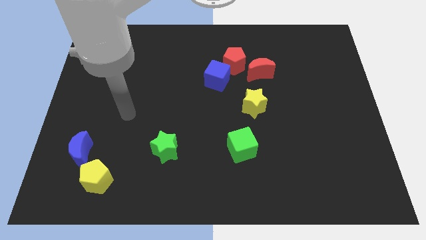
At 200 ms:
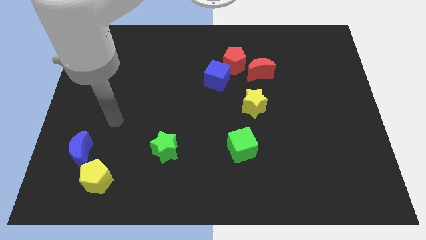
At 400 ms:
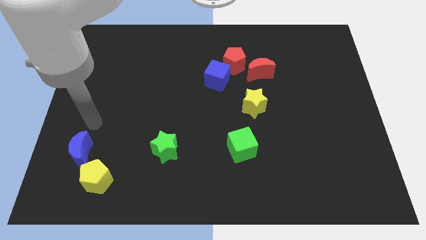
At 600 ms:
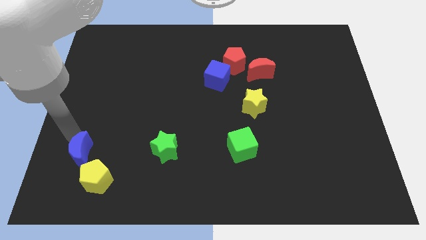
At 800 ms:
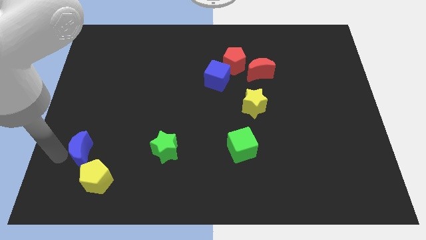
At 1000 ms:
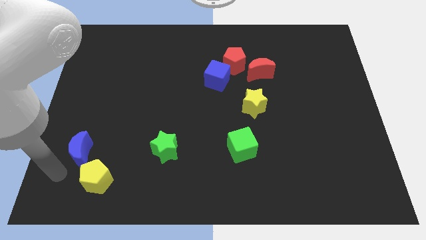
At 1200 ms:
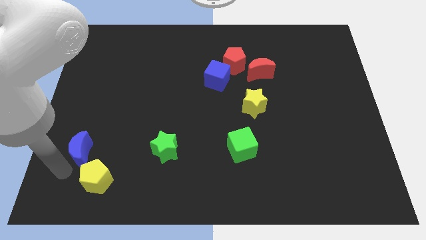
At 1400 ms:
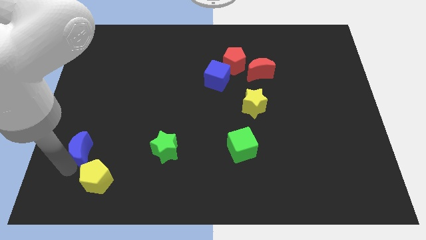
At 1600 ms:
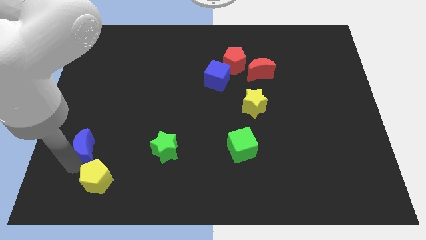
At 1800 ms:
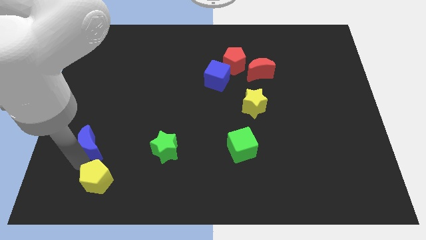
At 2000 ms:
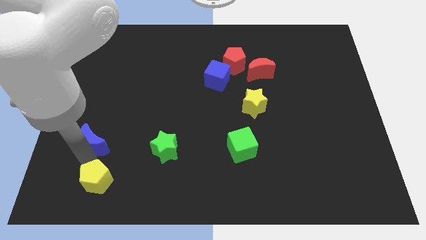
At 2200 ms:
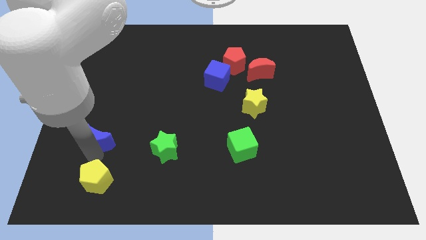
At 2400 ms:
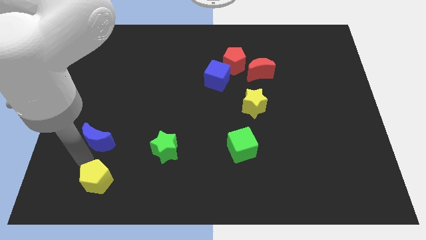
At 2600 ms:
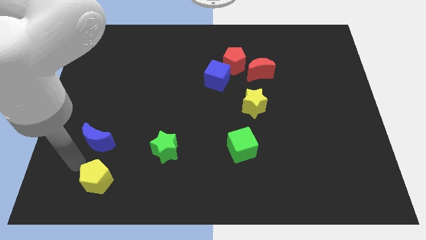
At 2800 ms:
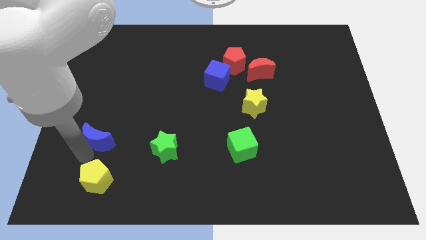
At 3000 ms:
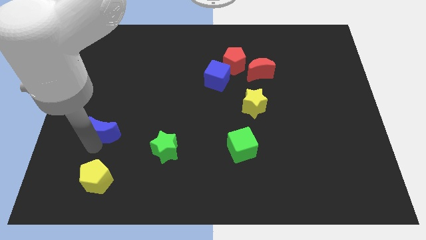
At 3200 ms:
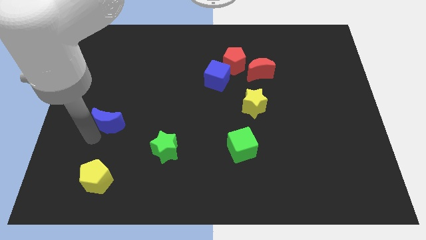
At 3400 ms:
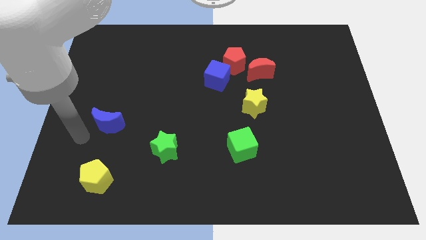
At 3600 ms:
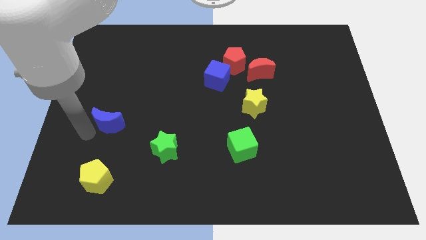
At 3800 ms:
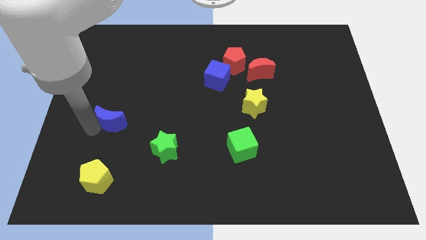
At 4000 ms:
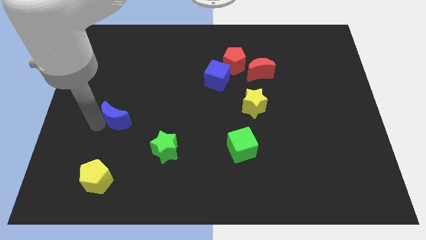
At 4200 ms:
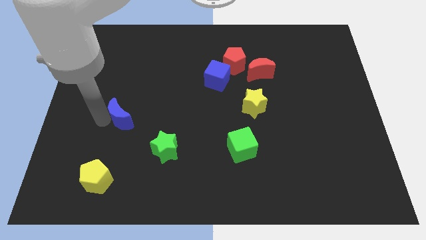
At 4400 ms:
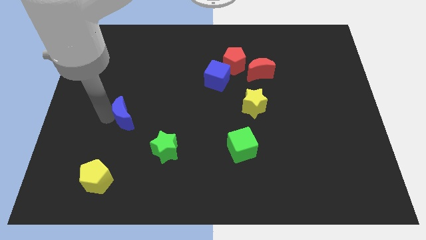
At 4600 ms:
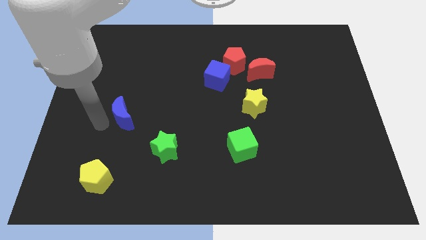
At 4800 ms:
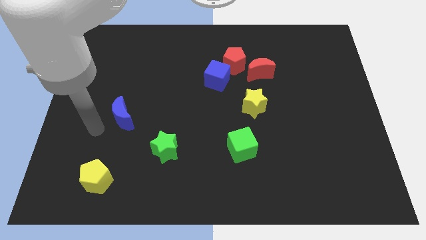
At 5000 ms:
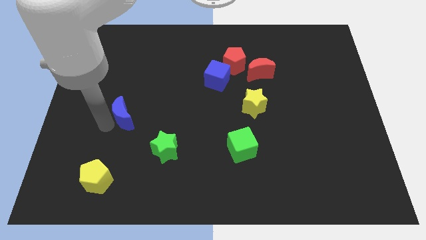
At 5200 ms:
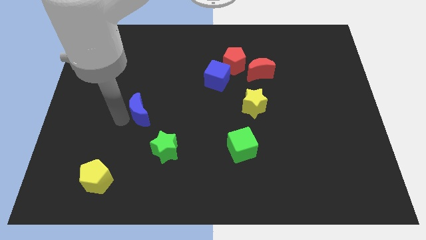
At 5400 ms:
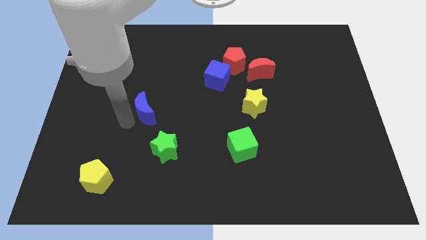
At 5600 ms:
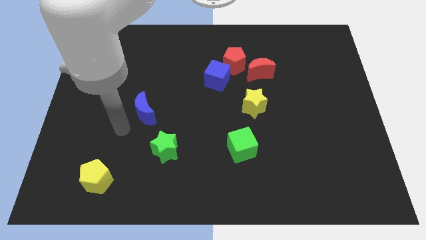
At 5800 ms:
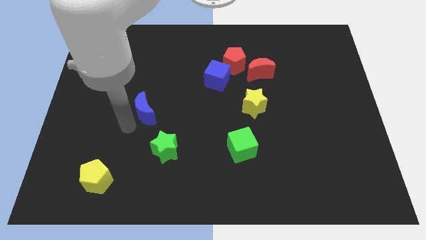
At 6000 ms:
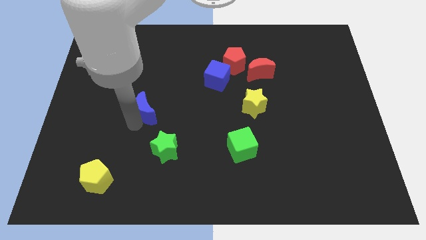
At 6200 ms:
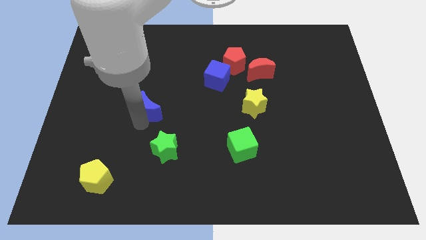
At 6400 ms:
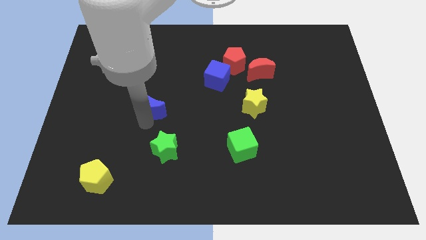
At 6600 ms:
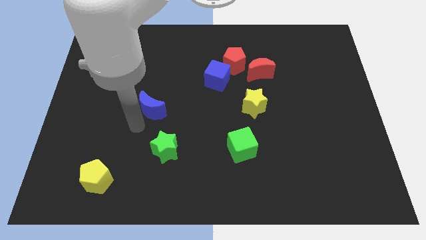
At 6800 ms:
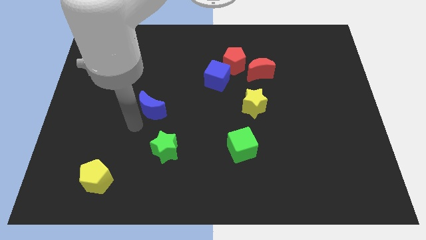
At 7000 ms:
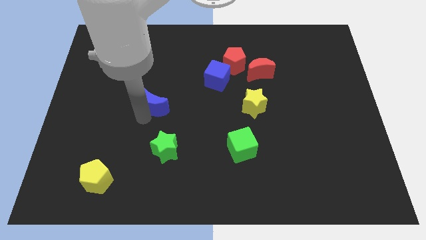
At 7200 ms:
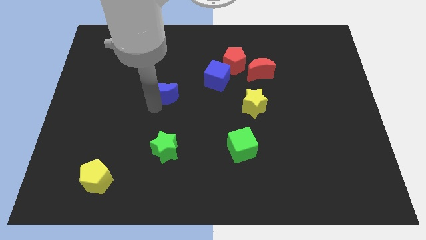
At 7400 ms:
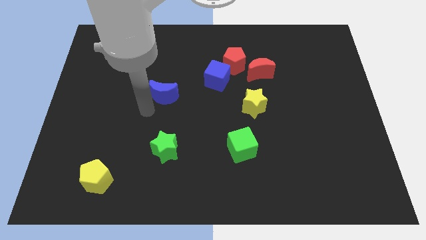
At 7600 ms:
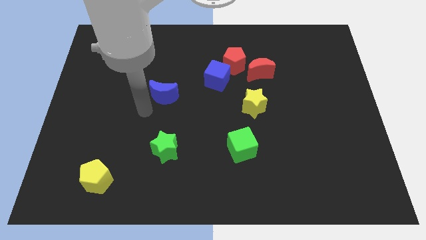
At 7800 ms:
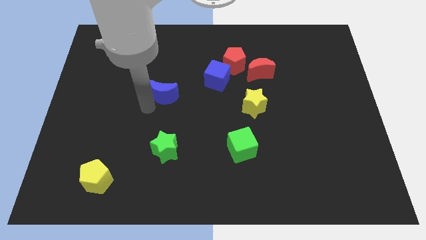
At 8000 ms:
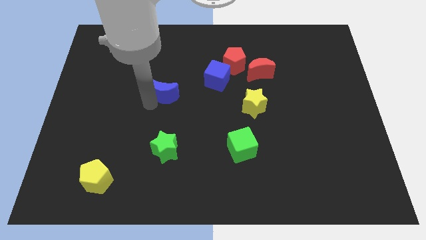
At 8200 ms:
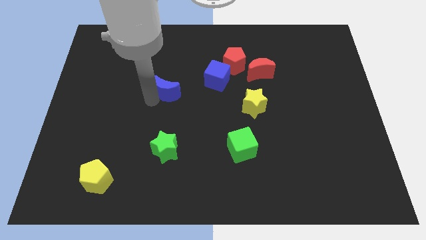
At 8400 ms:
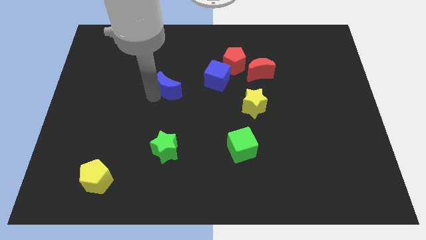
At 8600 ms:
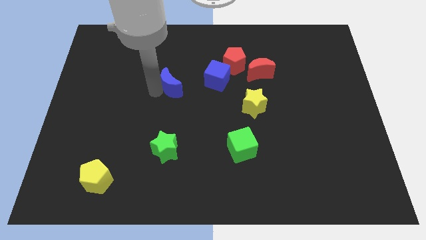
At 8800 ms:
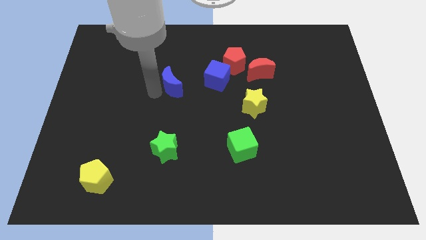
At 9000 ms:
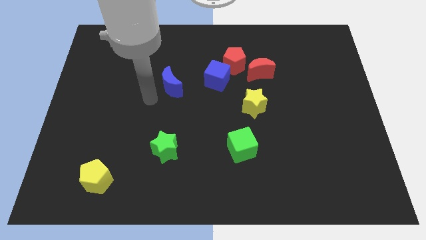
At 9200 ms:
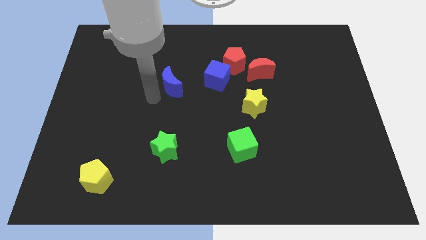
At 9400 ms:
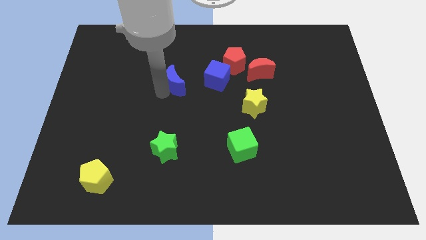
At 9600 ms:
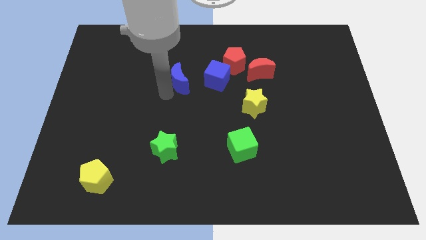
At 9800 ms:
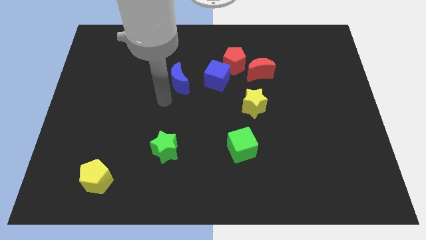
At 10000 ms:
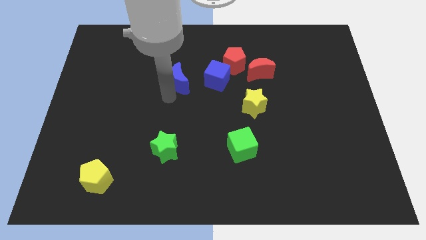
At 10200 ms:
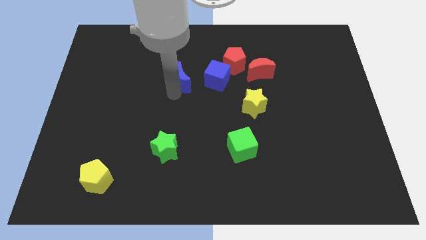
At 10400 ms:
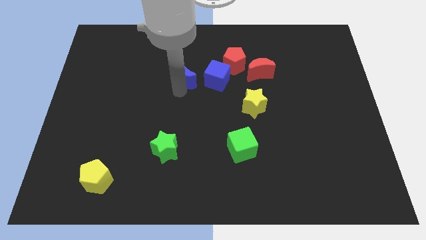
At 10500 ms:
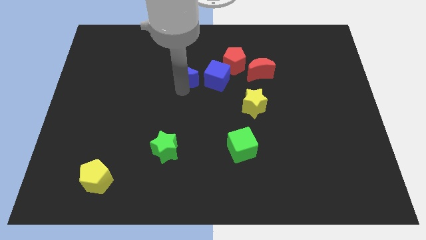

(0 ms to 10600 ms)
slide the blue moon to the left of the red pentagon

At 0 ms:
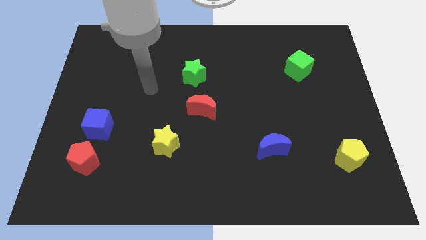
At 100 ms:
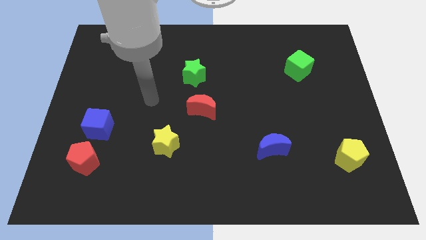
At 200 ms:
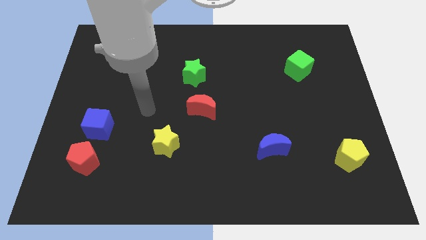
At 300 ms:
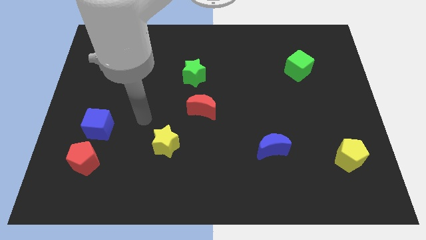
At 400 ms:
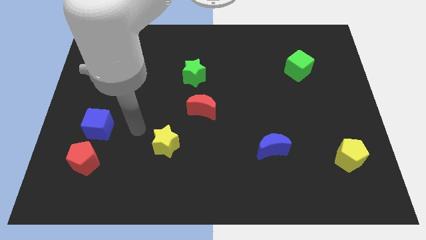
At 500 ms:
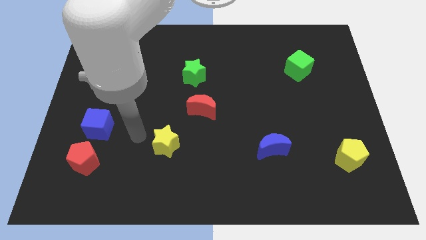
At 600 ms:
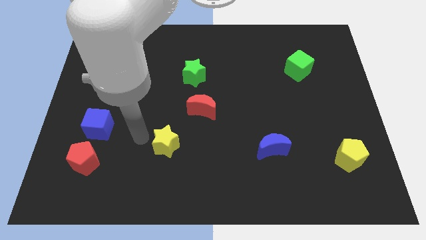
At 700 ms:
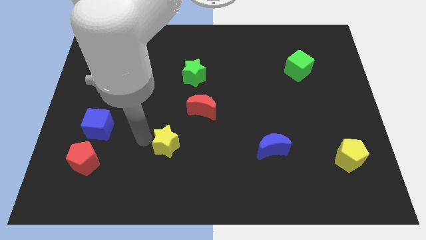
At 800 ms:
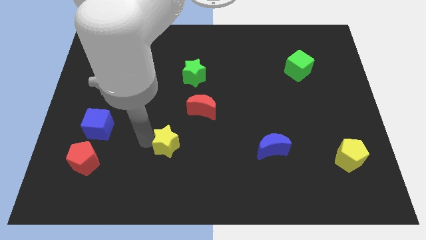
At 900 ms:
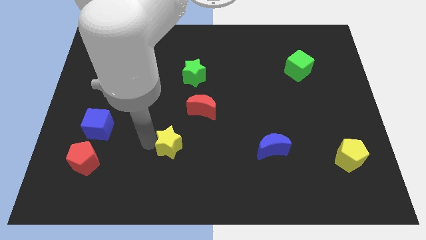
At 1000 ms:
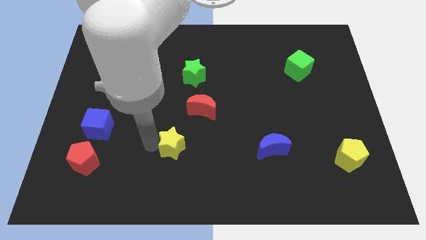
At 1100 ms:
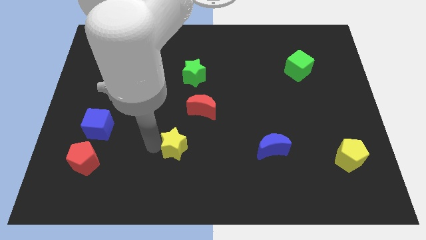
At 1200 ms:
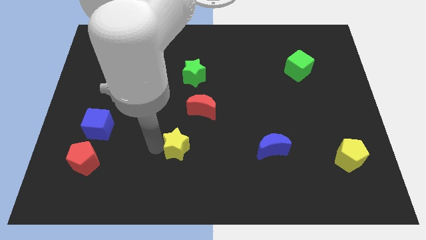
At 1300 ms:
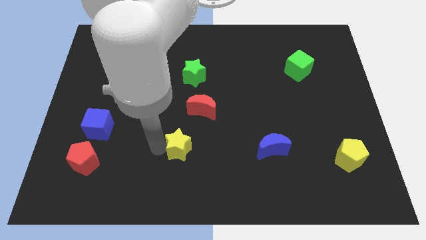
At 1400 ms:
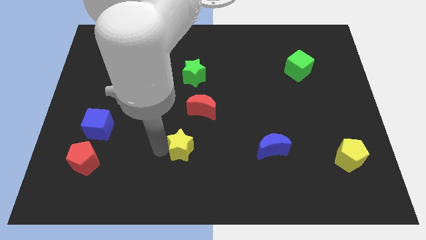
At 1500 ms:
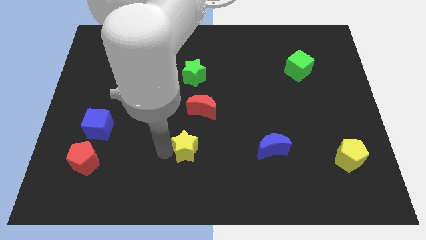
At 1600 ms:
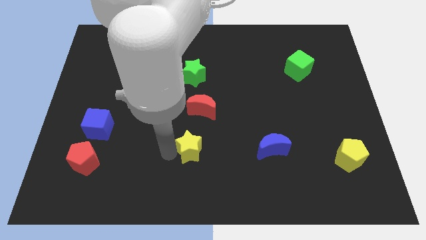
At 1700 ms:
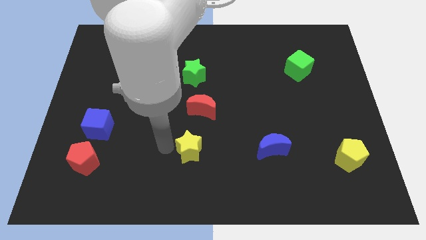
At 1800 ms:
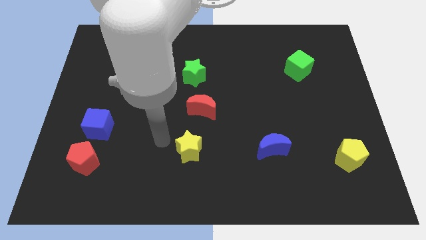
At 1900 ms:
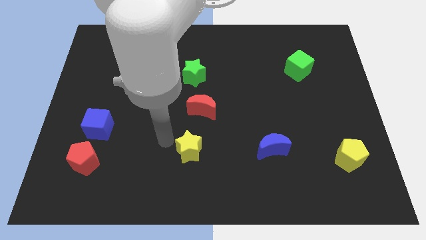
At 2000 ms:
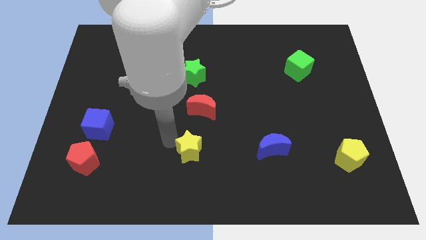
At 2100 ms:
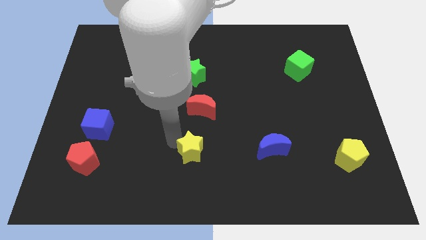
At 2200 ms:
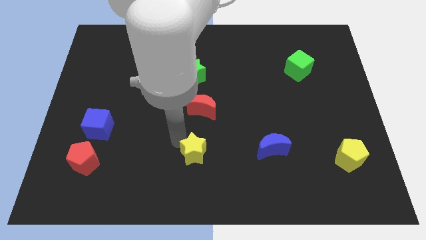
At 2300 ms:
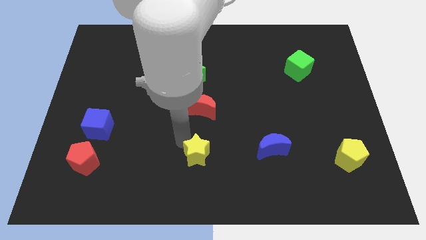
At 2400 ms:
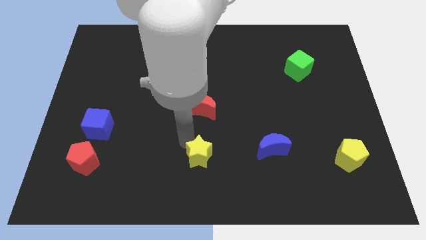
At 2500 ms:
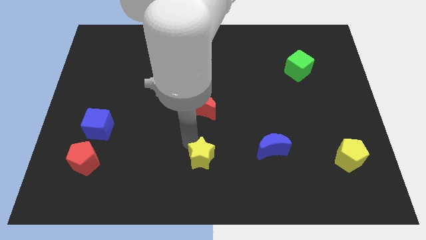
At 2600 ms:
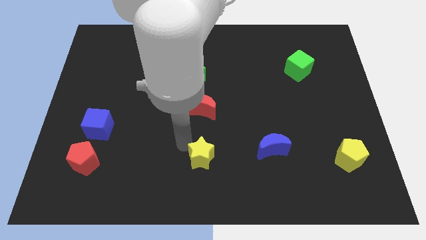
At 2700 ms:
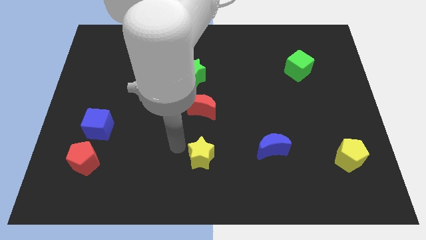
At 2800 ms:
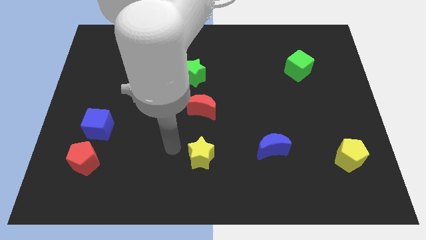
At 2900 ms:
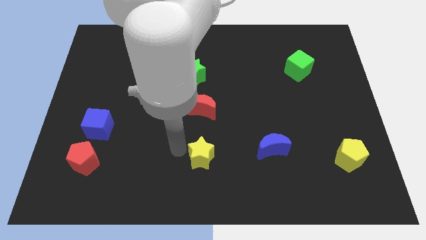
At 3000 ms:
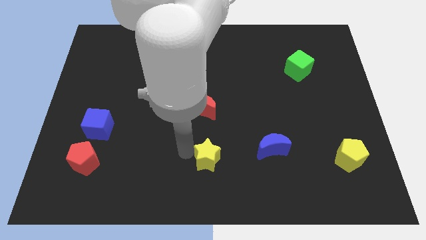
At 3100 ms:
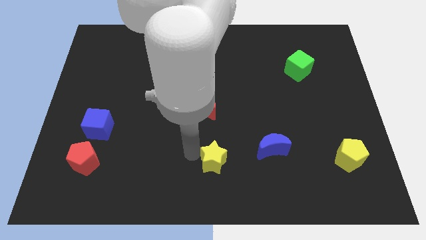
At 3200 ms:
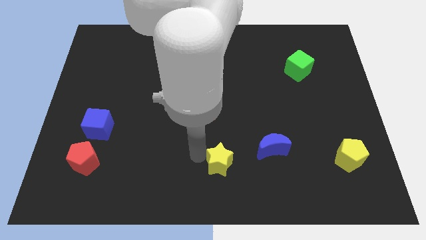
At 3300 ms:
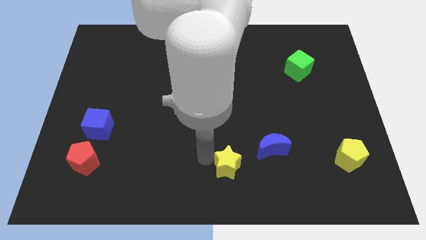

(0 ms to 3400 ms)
put the yellow star diagonally down and to the left of the blue moon

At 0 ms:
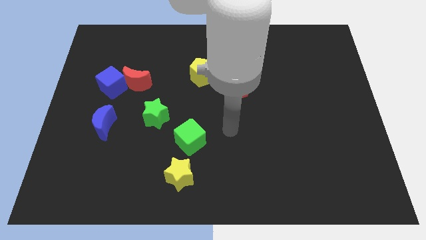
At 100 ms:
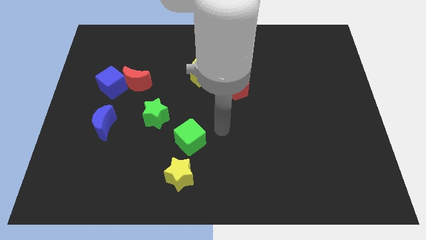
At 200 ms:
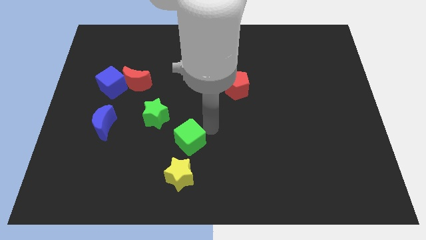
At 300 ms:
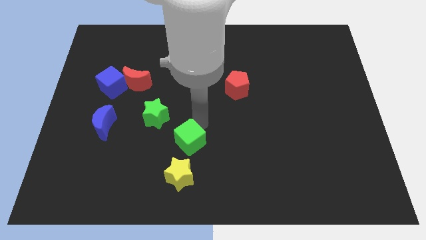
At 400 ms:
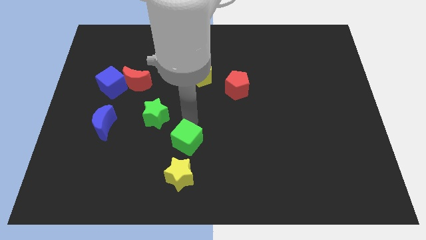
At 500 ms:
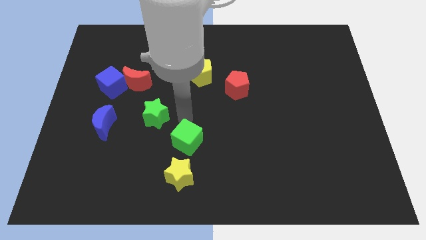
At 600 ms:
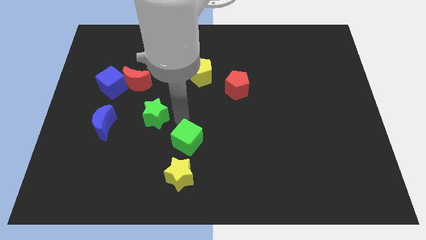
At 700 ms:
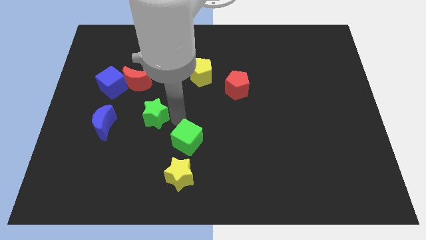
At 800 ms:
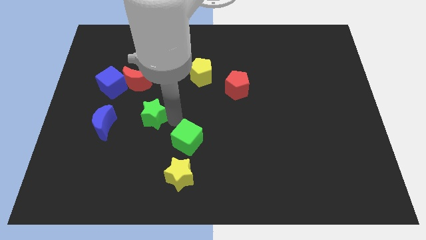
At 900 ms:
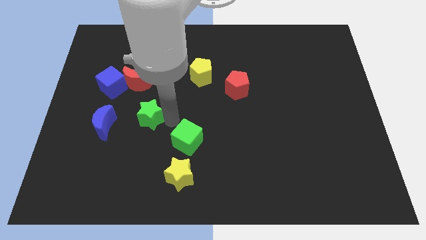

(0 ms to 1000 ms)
put the green star to the bottom side of the red moon
